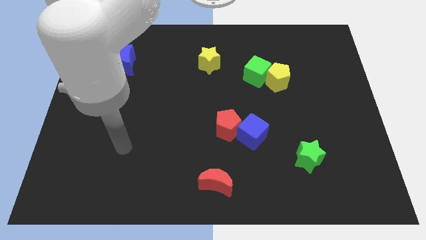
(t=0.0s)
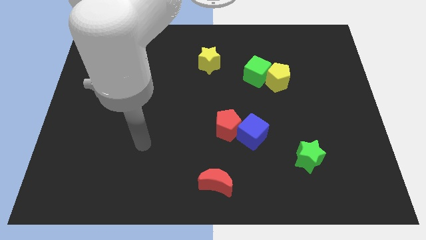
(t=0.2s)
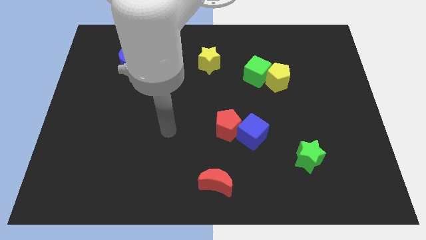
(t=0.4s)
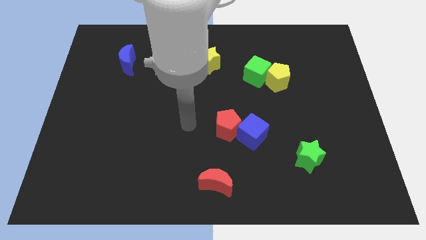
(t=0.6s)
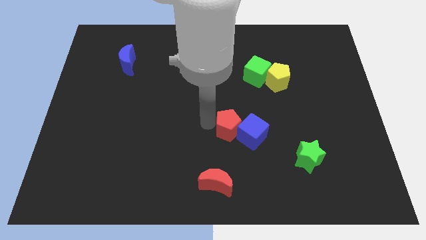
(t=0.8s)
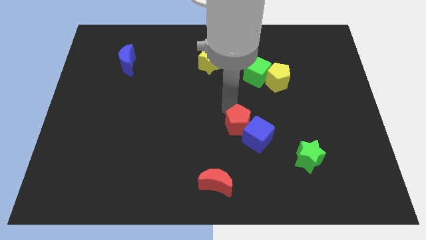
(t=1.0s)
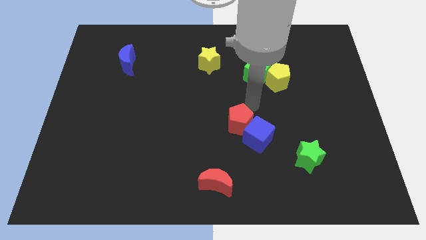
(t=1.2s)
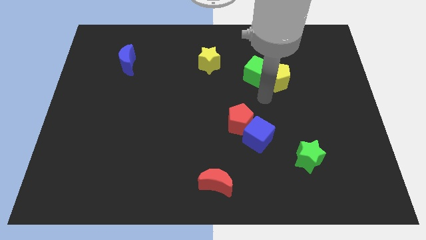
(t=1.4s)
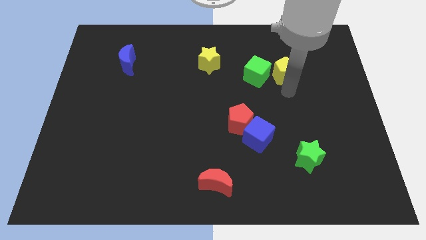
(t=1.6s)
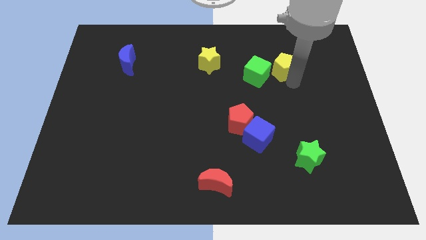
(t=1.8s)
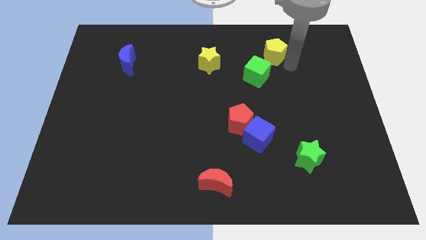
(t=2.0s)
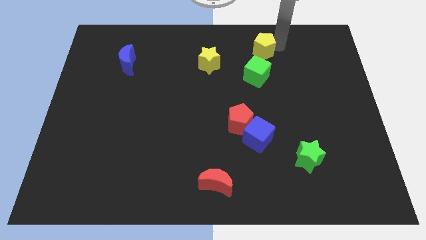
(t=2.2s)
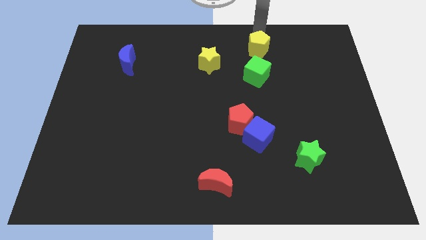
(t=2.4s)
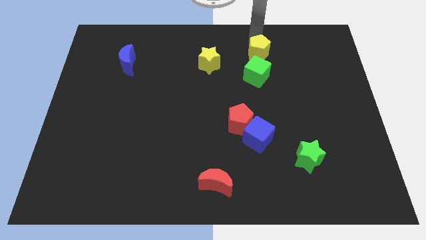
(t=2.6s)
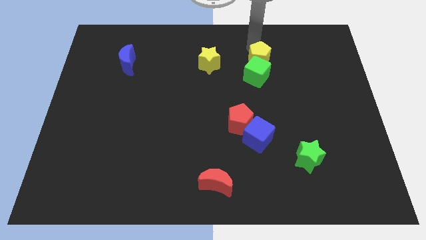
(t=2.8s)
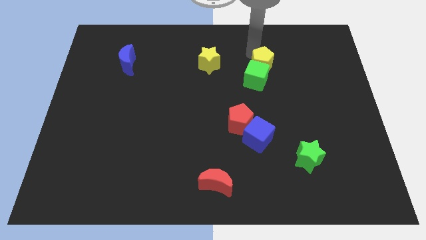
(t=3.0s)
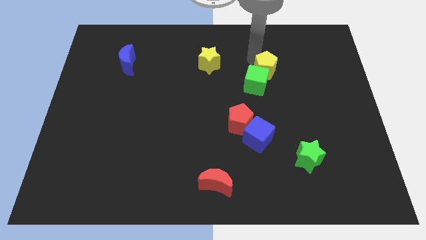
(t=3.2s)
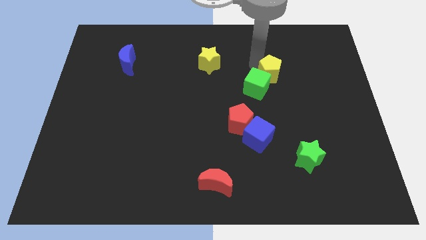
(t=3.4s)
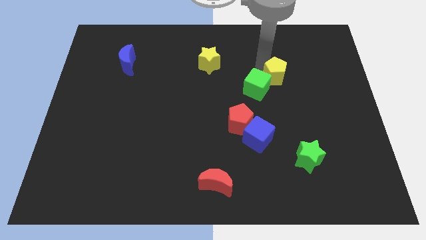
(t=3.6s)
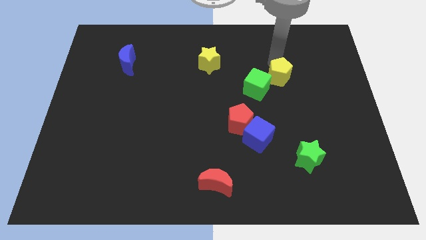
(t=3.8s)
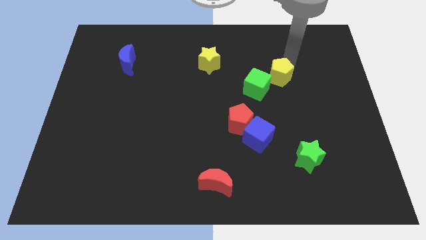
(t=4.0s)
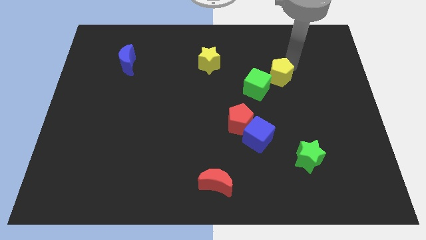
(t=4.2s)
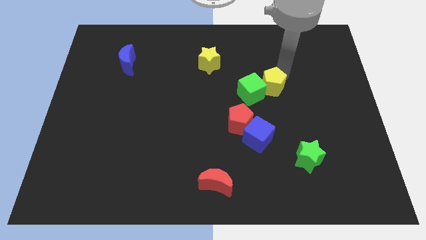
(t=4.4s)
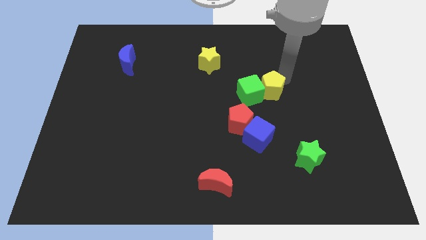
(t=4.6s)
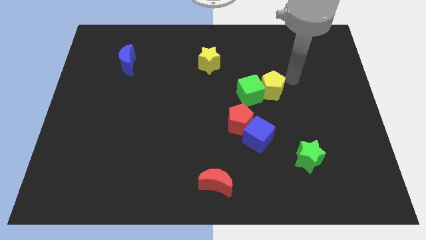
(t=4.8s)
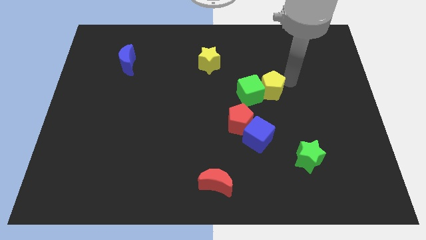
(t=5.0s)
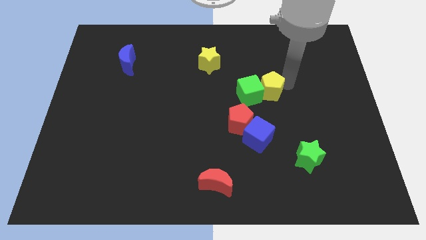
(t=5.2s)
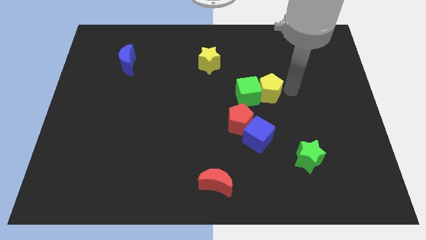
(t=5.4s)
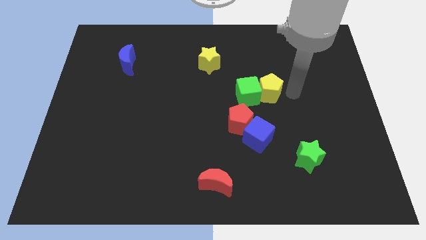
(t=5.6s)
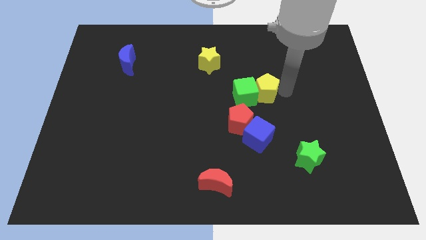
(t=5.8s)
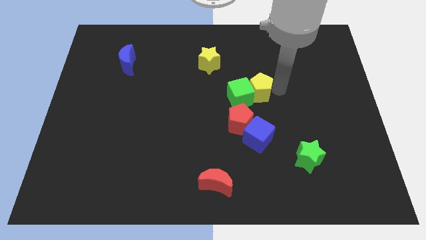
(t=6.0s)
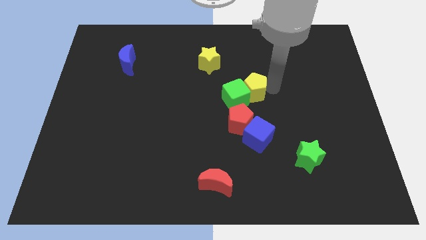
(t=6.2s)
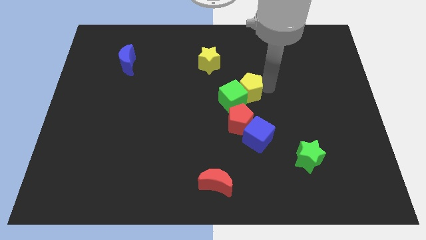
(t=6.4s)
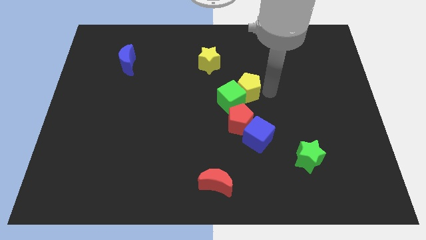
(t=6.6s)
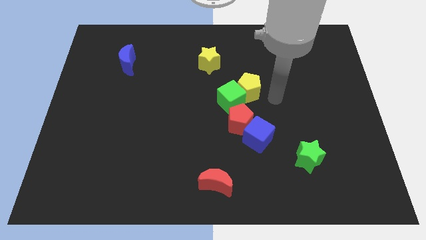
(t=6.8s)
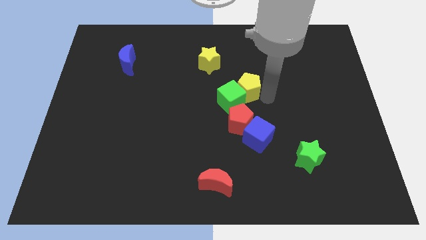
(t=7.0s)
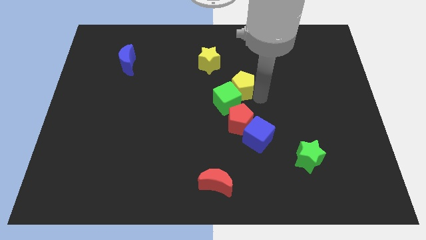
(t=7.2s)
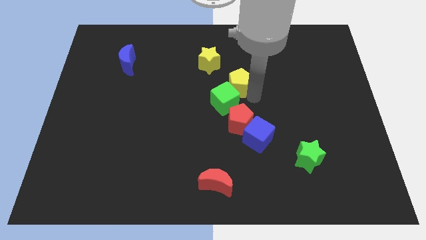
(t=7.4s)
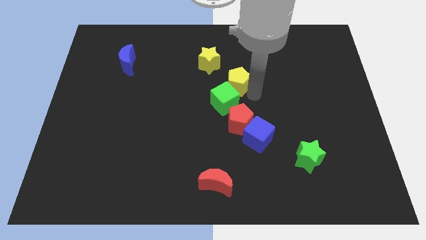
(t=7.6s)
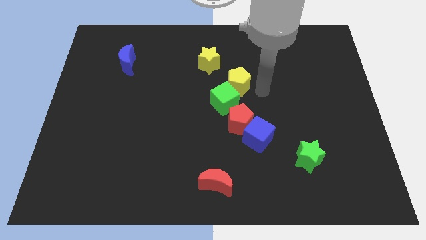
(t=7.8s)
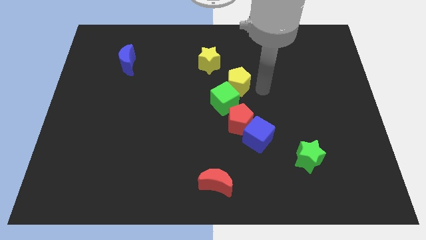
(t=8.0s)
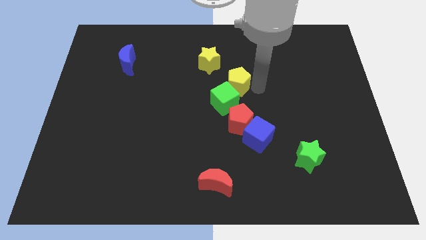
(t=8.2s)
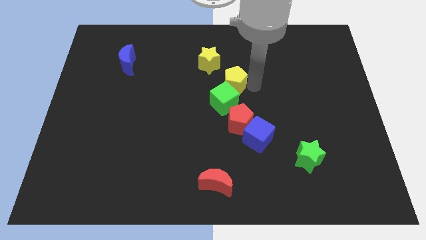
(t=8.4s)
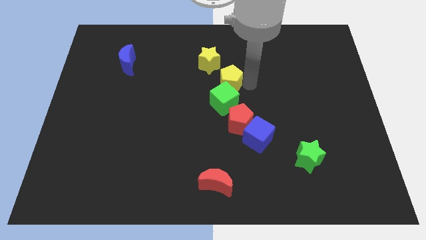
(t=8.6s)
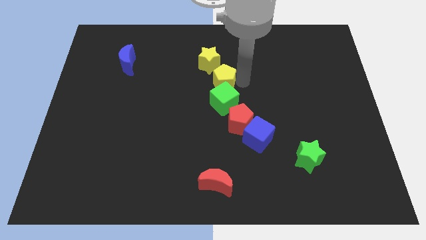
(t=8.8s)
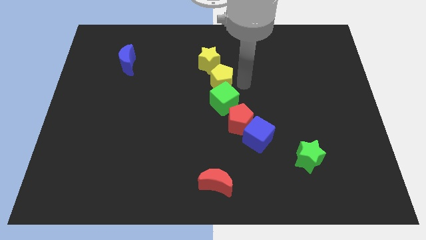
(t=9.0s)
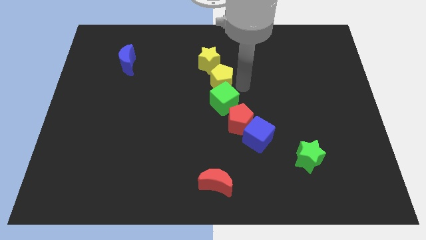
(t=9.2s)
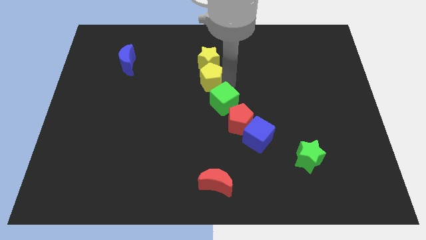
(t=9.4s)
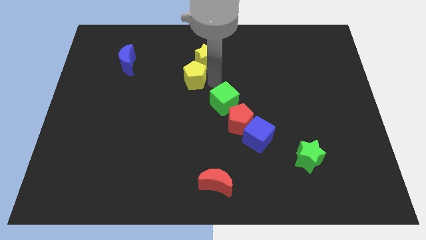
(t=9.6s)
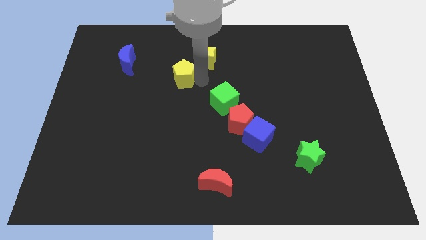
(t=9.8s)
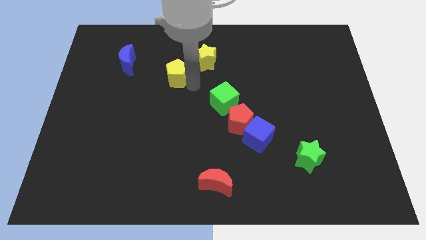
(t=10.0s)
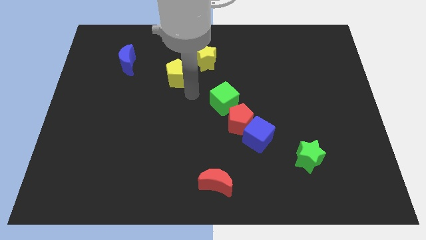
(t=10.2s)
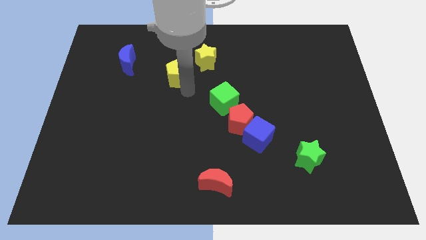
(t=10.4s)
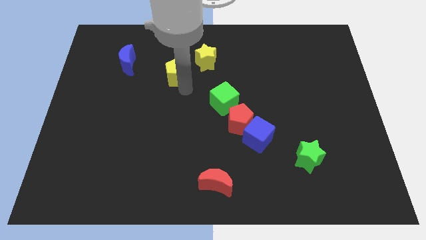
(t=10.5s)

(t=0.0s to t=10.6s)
put the yellow pentagon to the right side of the blue moon

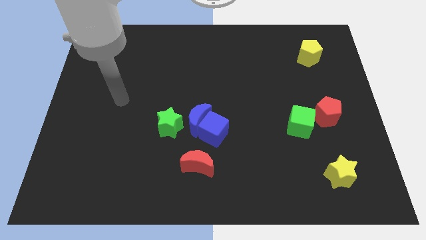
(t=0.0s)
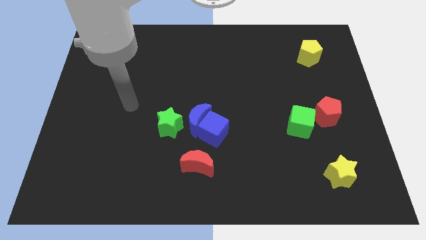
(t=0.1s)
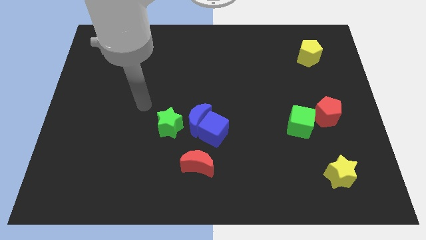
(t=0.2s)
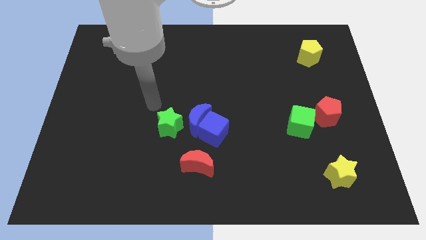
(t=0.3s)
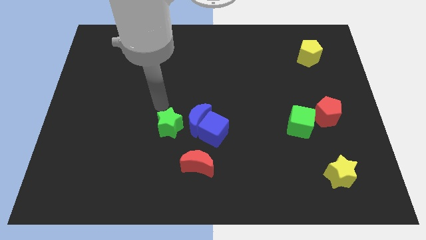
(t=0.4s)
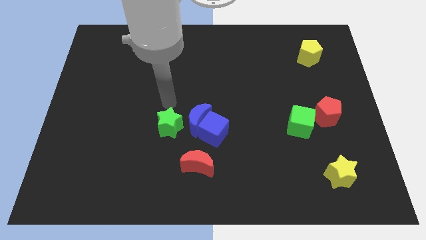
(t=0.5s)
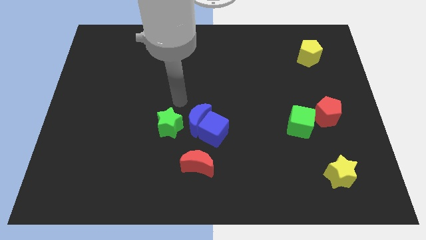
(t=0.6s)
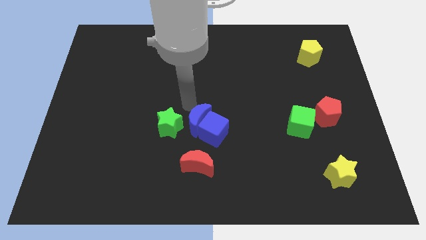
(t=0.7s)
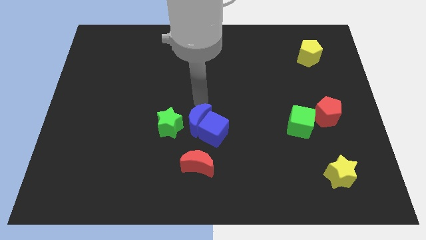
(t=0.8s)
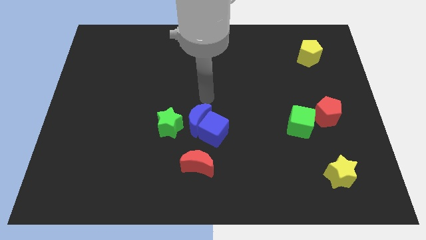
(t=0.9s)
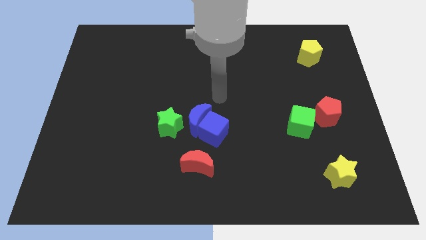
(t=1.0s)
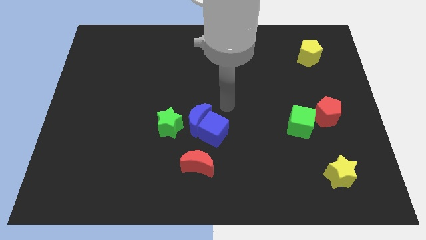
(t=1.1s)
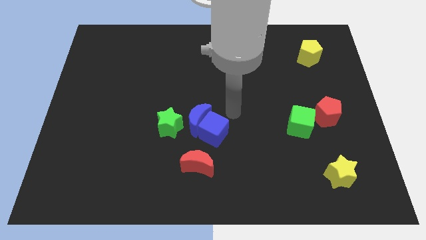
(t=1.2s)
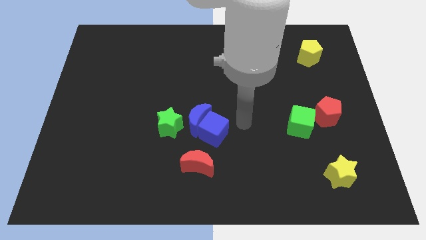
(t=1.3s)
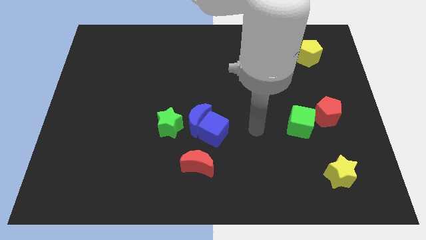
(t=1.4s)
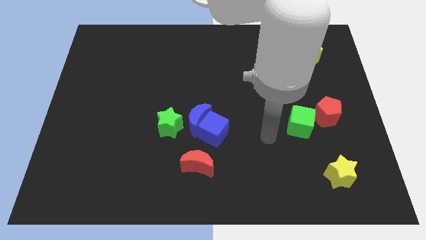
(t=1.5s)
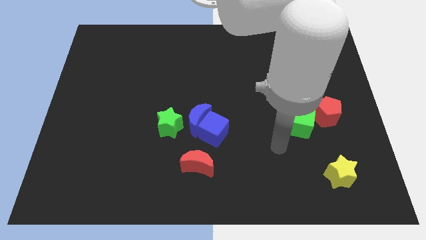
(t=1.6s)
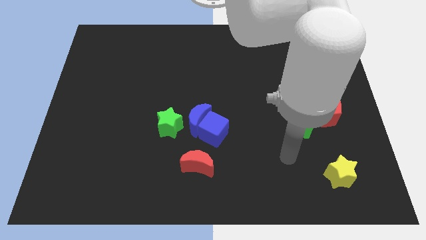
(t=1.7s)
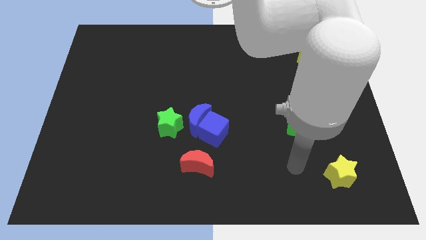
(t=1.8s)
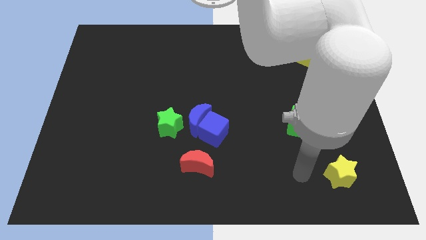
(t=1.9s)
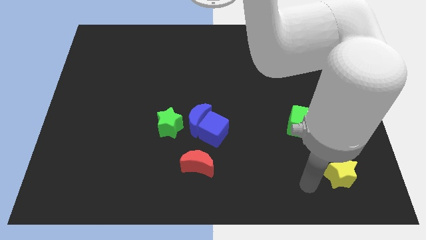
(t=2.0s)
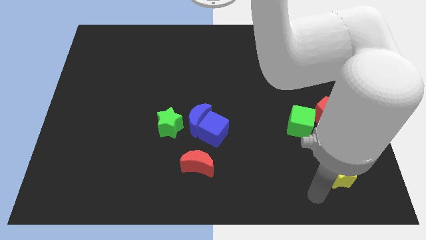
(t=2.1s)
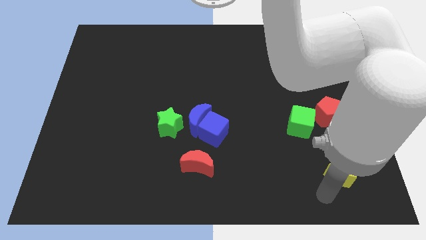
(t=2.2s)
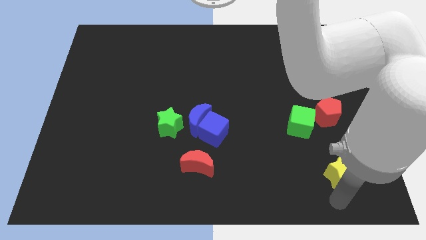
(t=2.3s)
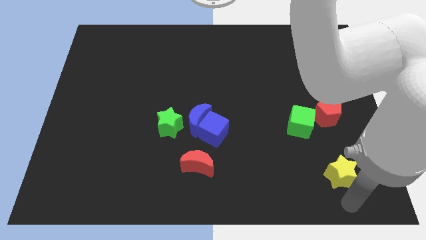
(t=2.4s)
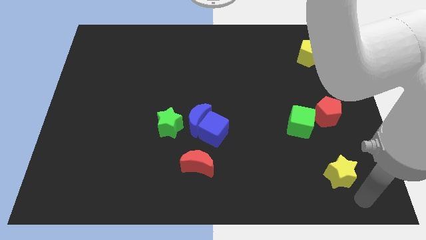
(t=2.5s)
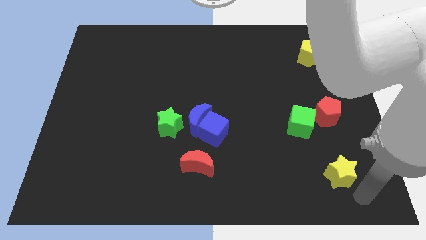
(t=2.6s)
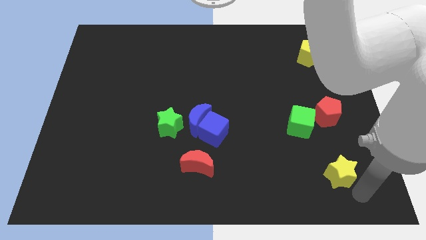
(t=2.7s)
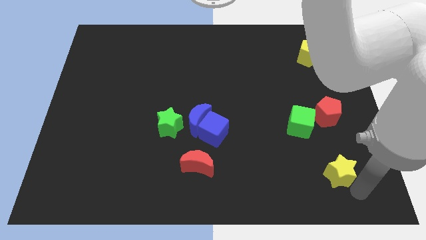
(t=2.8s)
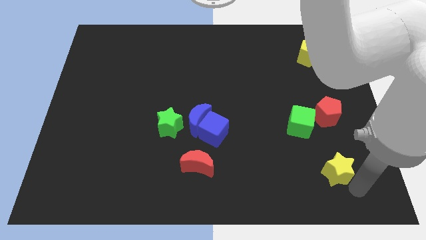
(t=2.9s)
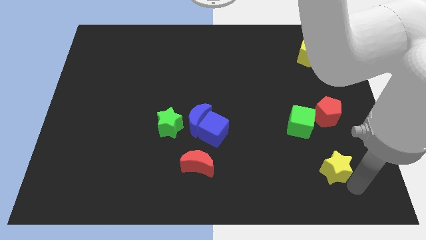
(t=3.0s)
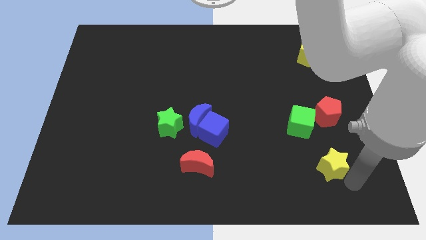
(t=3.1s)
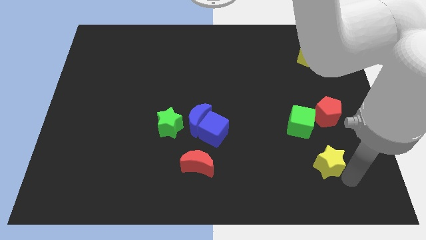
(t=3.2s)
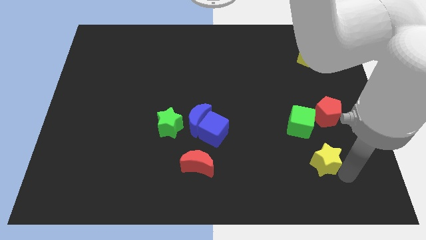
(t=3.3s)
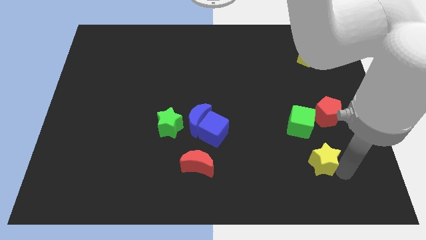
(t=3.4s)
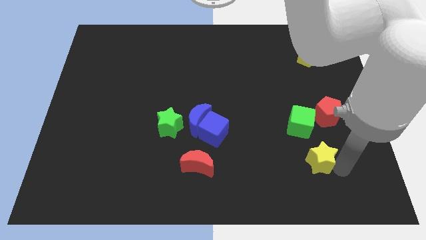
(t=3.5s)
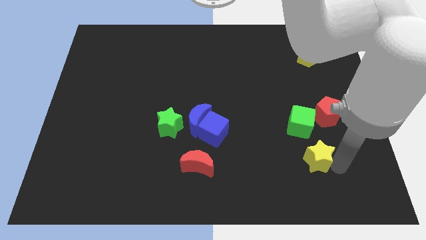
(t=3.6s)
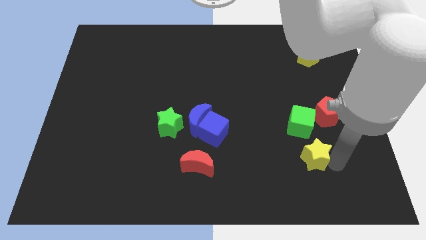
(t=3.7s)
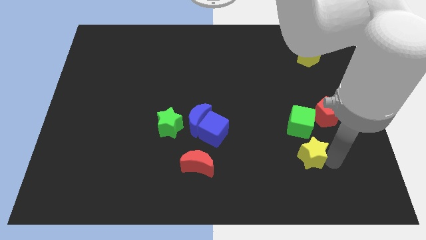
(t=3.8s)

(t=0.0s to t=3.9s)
push the yellow star to the bottom left side of the red pentagon
